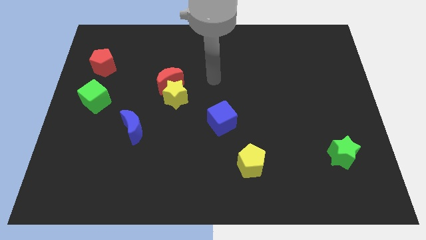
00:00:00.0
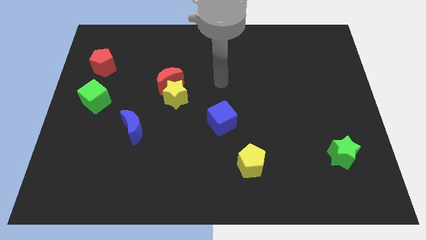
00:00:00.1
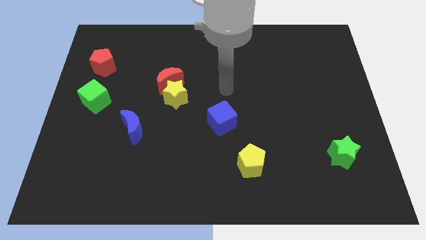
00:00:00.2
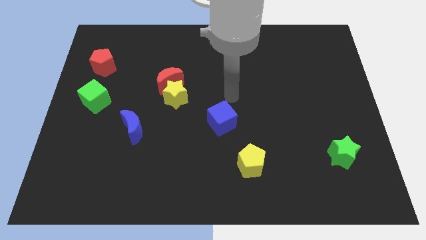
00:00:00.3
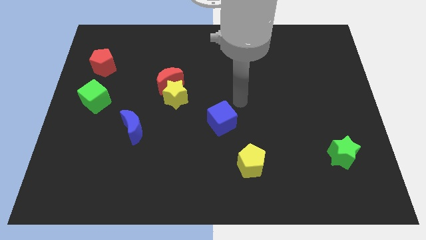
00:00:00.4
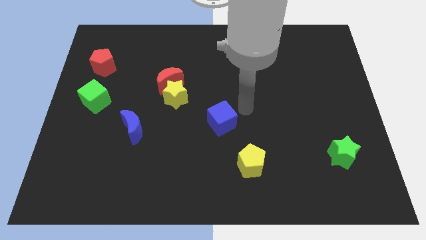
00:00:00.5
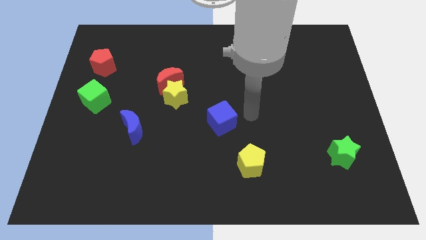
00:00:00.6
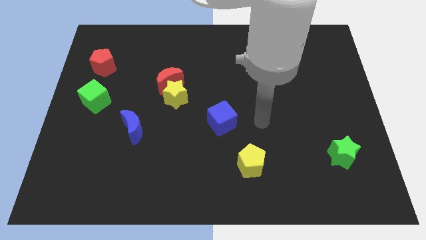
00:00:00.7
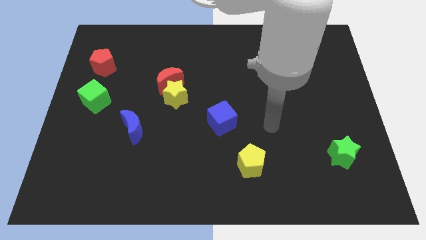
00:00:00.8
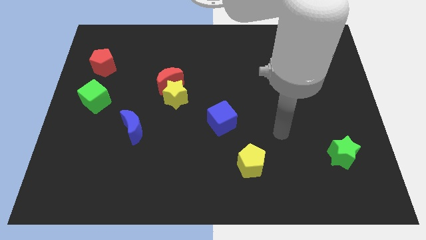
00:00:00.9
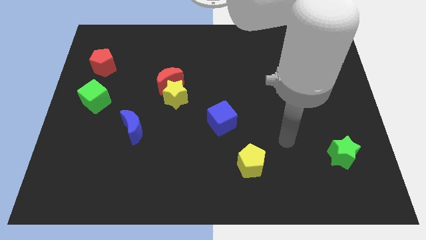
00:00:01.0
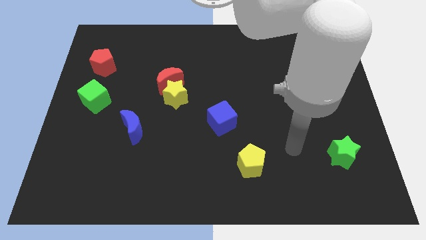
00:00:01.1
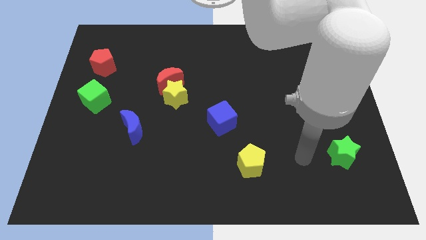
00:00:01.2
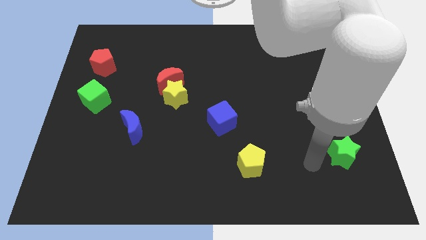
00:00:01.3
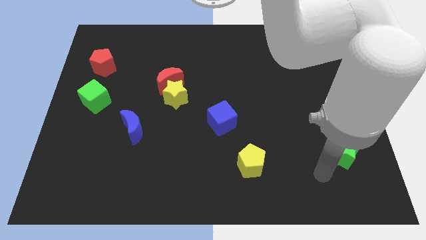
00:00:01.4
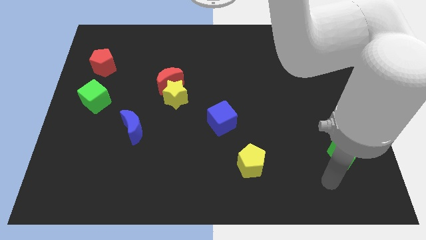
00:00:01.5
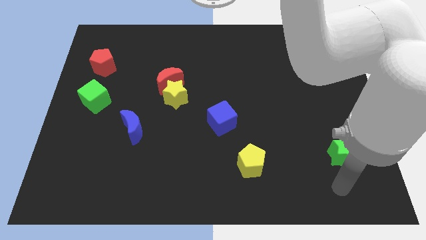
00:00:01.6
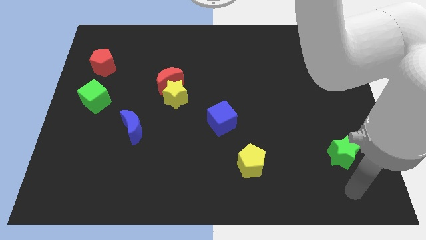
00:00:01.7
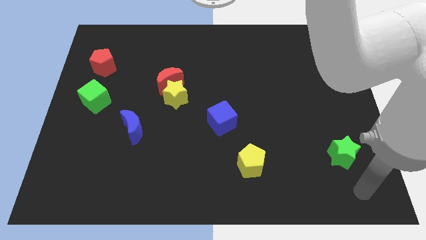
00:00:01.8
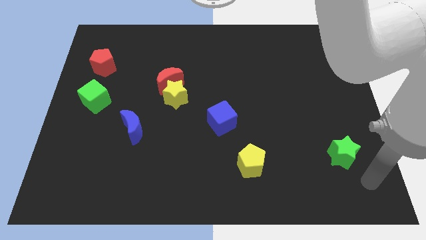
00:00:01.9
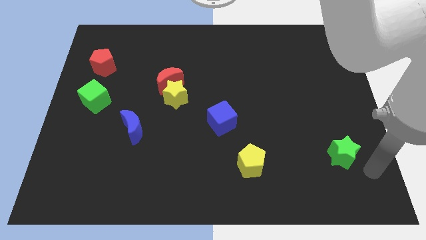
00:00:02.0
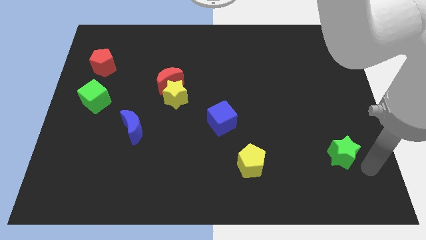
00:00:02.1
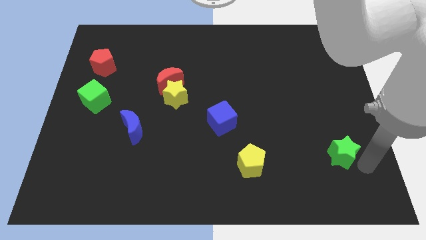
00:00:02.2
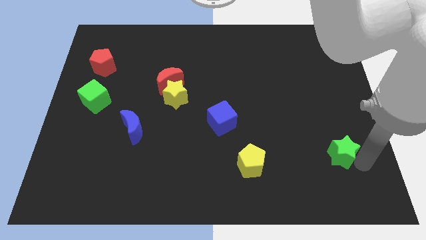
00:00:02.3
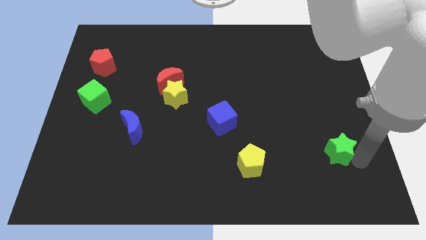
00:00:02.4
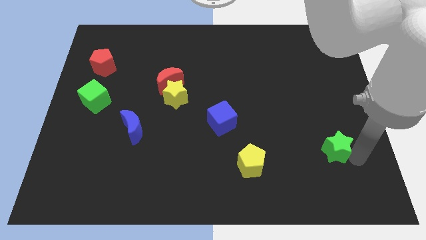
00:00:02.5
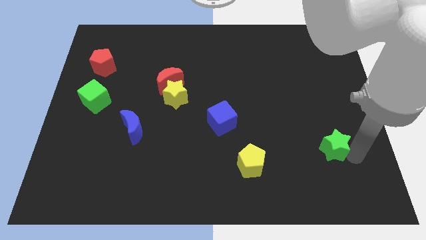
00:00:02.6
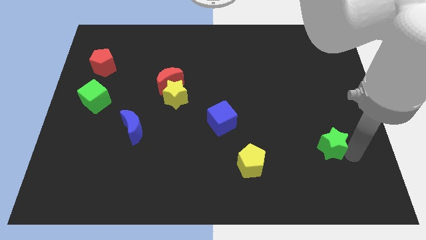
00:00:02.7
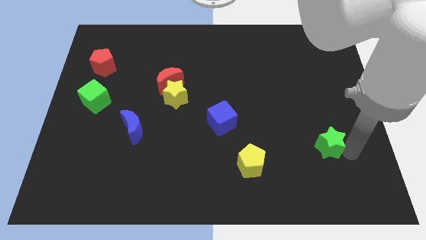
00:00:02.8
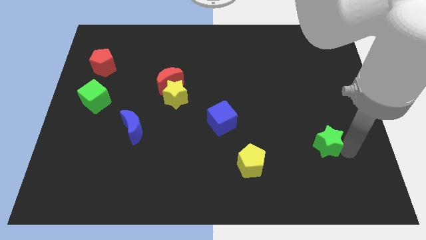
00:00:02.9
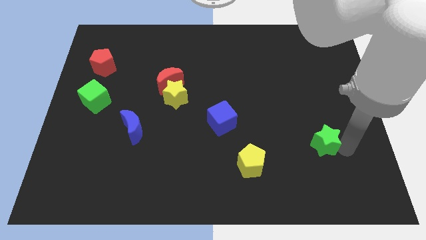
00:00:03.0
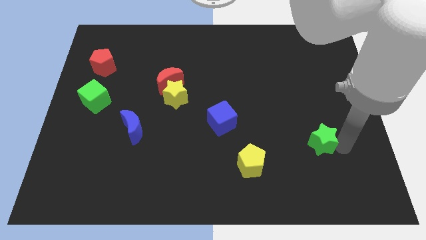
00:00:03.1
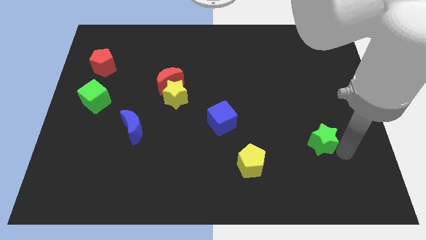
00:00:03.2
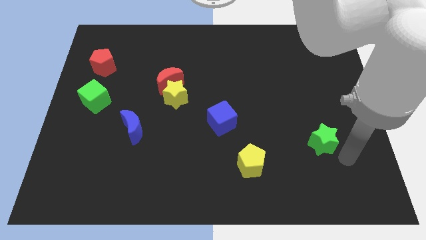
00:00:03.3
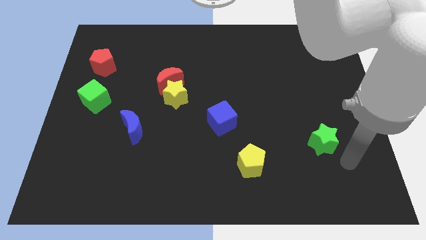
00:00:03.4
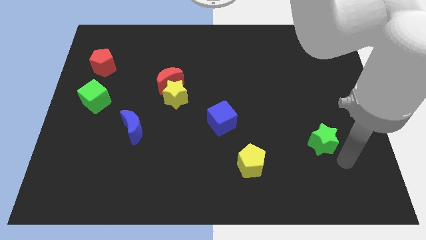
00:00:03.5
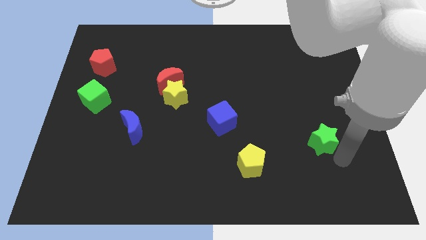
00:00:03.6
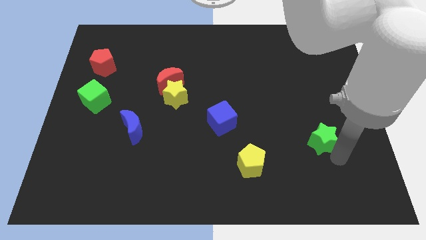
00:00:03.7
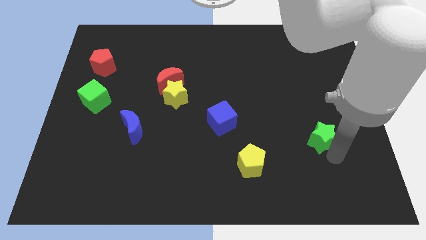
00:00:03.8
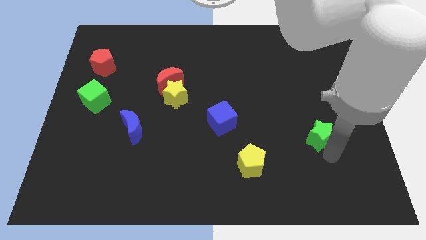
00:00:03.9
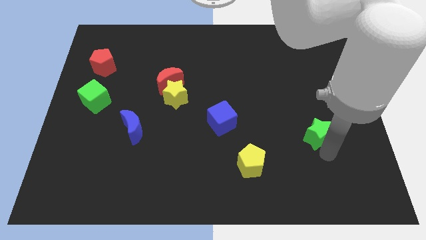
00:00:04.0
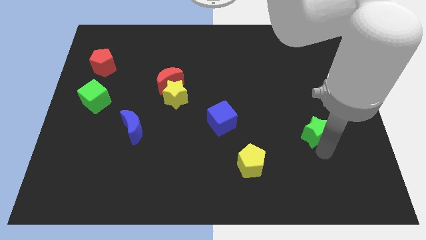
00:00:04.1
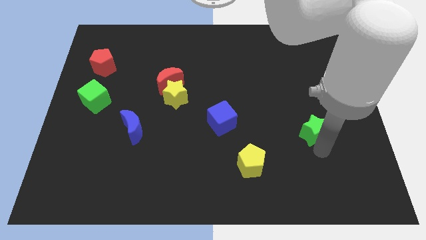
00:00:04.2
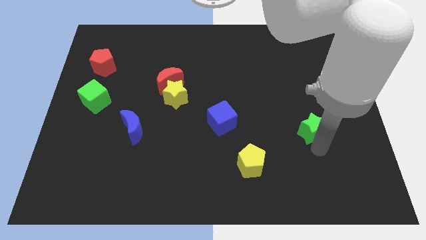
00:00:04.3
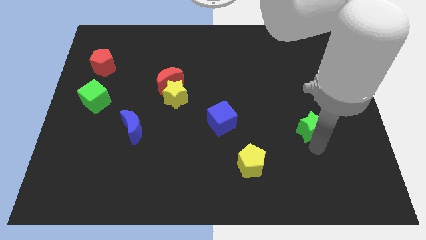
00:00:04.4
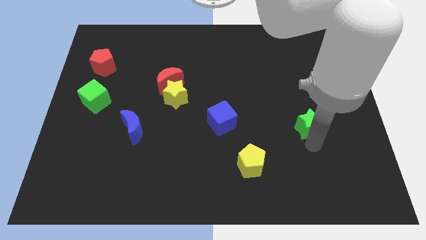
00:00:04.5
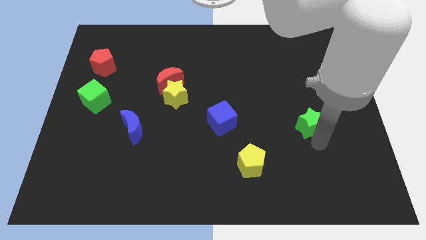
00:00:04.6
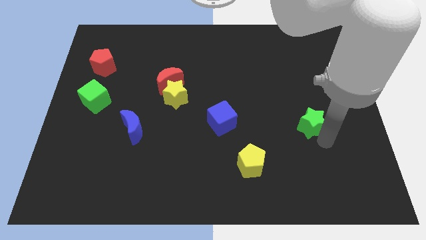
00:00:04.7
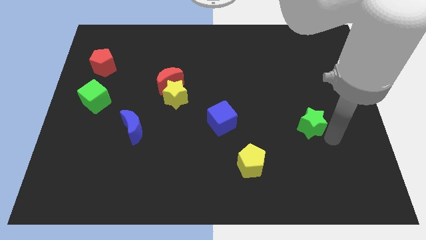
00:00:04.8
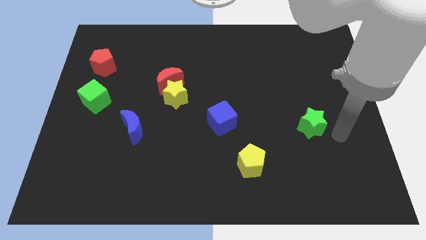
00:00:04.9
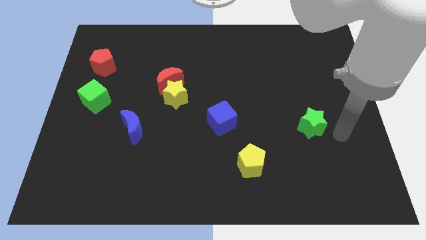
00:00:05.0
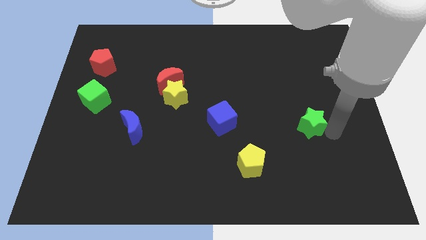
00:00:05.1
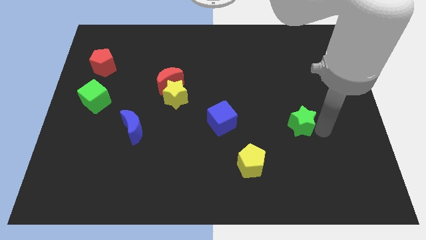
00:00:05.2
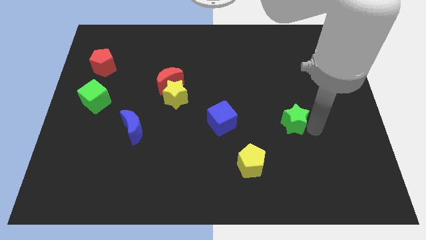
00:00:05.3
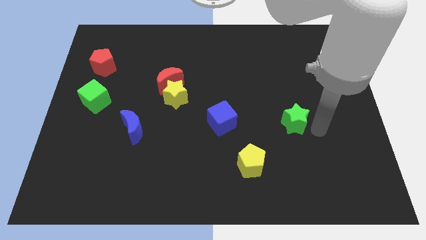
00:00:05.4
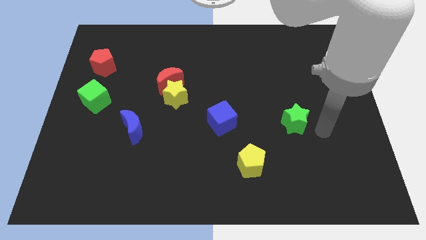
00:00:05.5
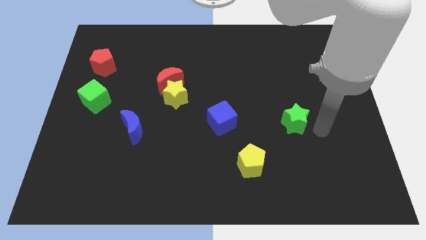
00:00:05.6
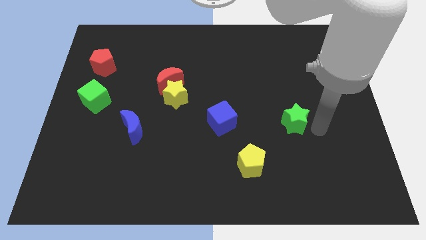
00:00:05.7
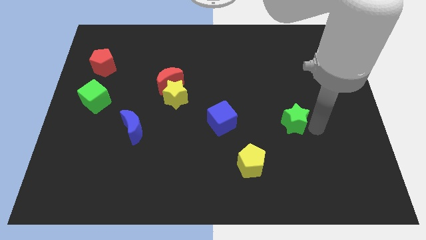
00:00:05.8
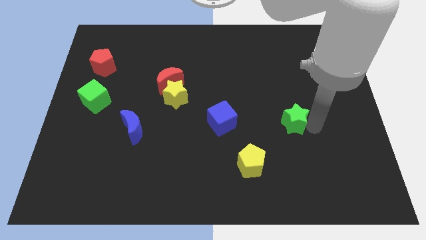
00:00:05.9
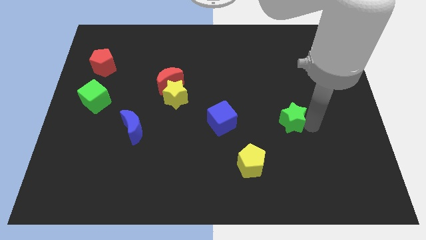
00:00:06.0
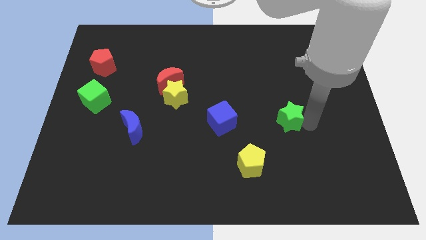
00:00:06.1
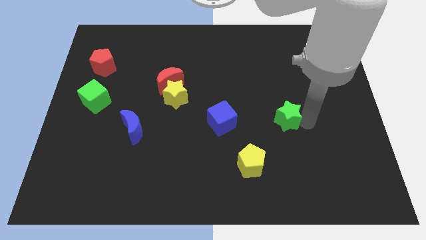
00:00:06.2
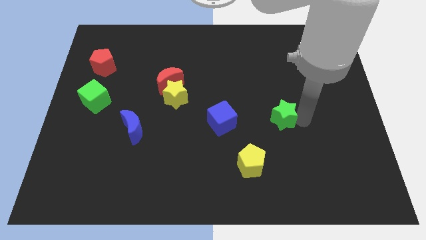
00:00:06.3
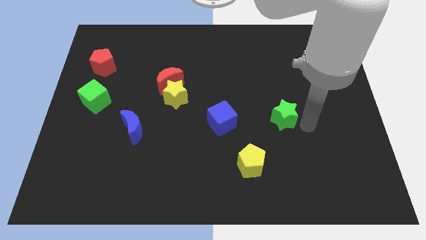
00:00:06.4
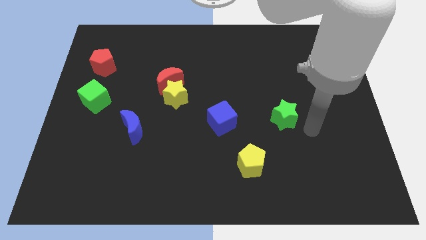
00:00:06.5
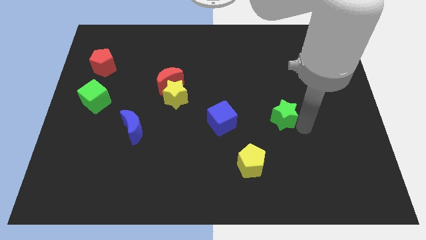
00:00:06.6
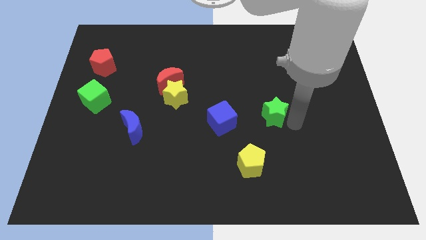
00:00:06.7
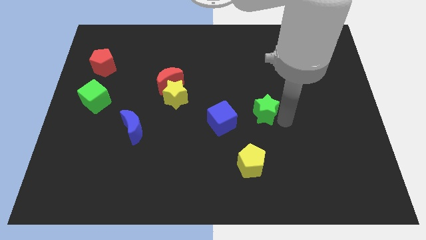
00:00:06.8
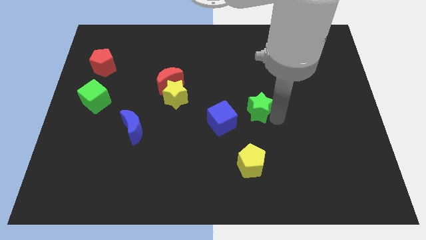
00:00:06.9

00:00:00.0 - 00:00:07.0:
move the green star diagonally up and to the right of the blue cube
